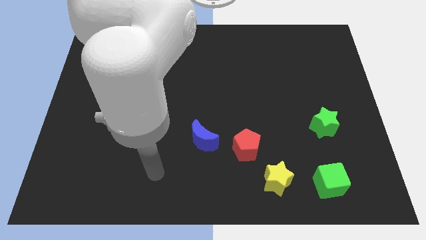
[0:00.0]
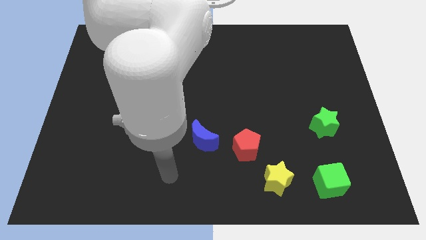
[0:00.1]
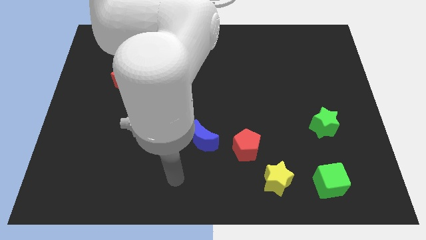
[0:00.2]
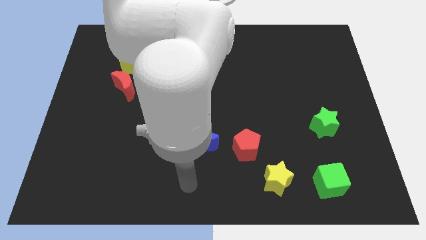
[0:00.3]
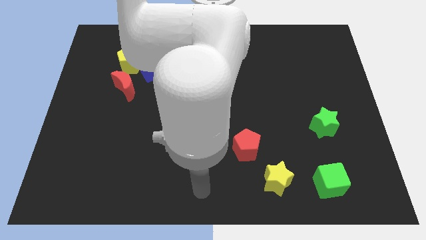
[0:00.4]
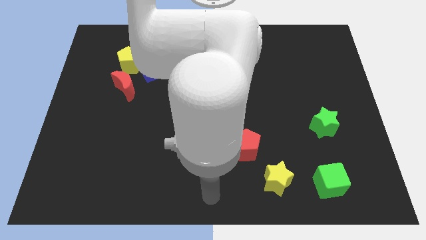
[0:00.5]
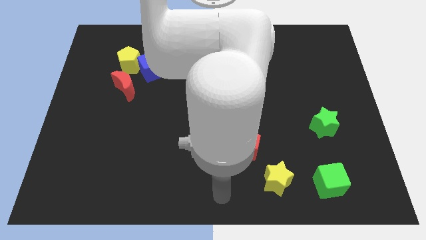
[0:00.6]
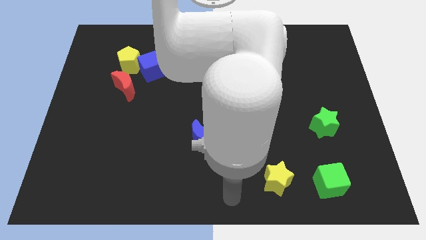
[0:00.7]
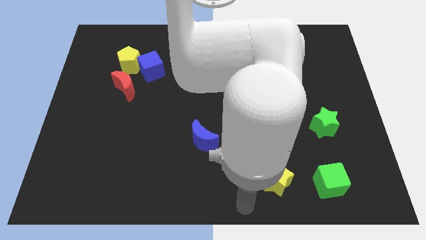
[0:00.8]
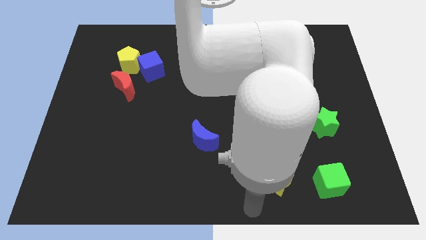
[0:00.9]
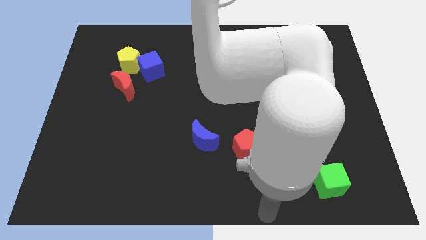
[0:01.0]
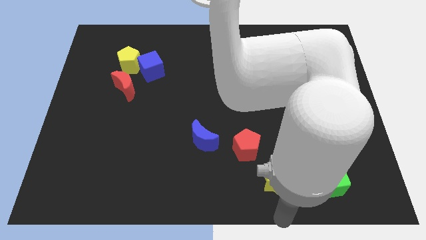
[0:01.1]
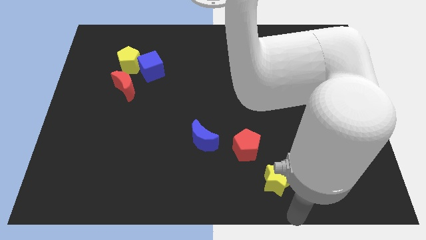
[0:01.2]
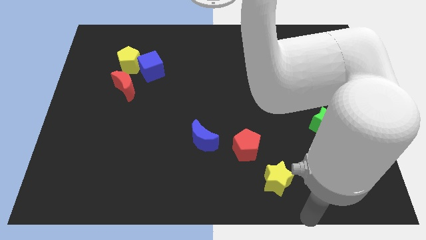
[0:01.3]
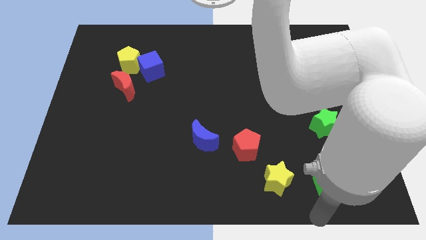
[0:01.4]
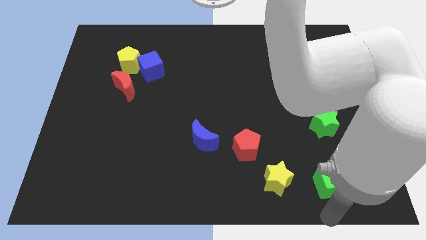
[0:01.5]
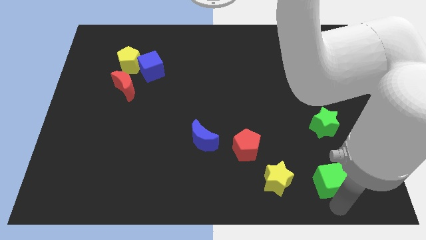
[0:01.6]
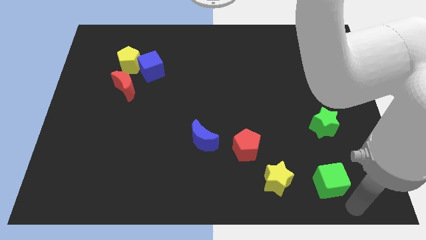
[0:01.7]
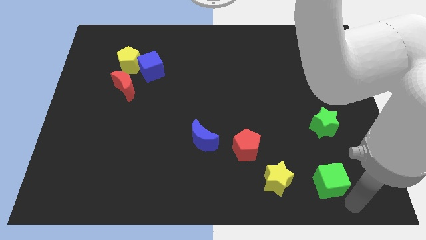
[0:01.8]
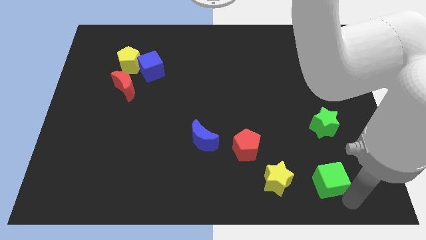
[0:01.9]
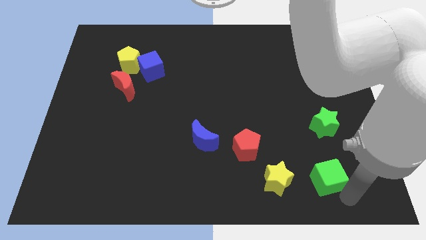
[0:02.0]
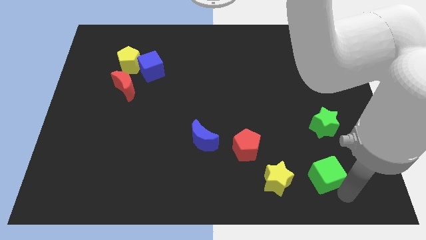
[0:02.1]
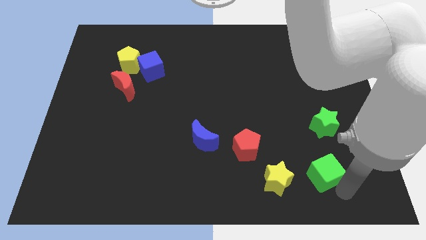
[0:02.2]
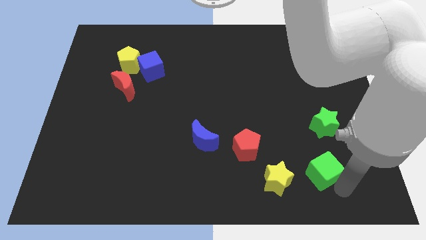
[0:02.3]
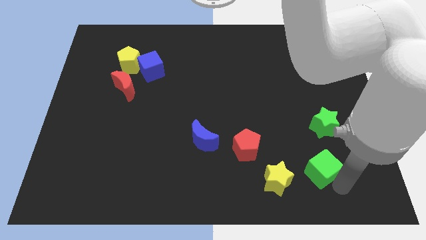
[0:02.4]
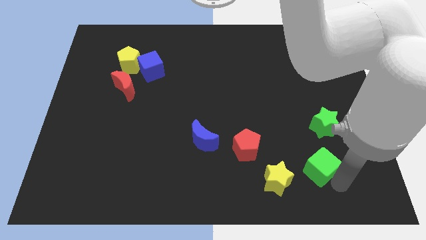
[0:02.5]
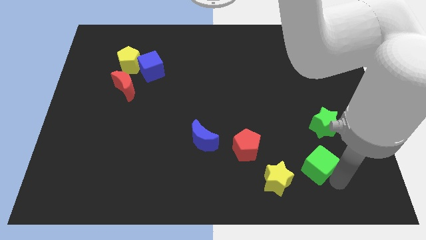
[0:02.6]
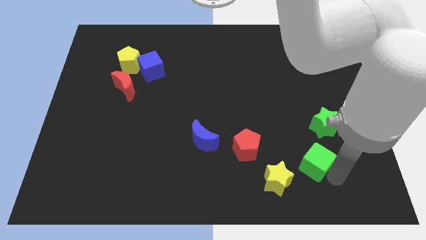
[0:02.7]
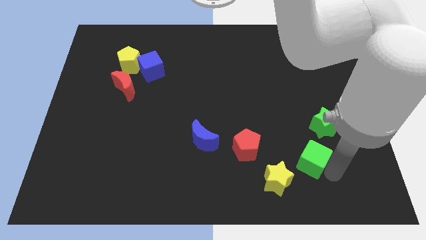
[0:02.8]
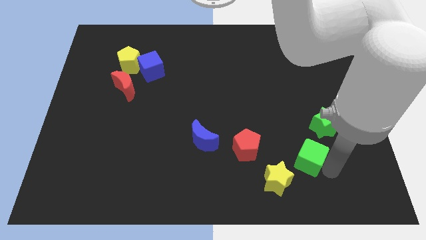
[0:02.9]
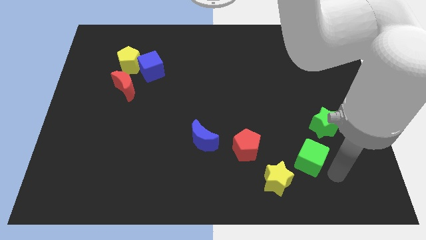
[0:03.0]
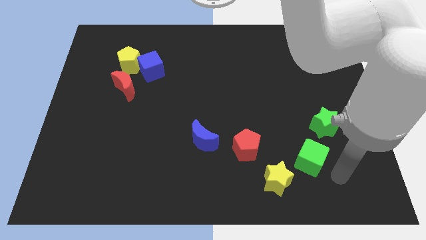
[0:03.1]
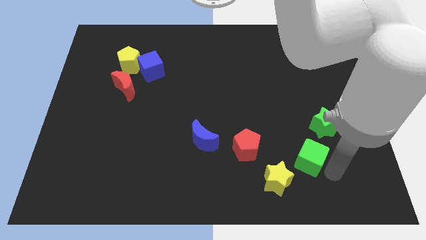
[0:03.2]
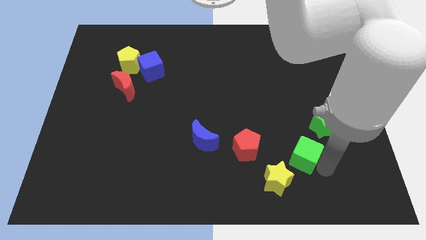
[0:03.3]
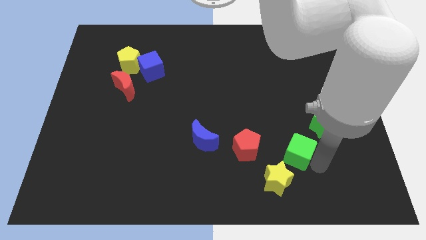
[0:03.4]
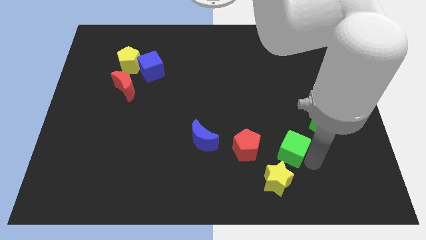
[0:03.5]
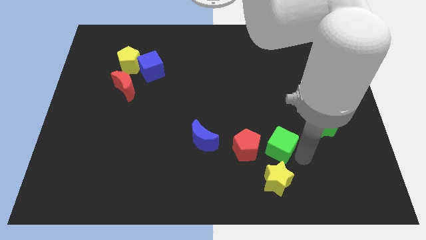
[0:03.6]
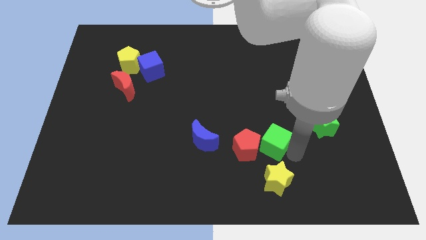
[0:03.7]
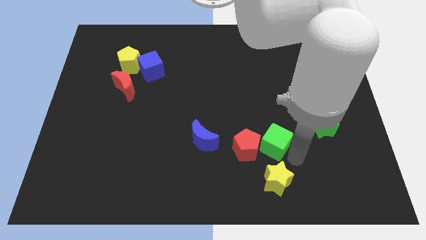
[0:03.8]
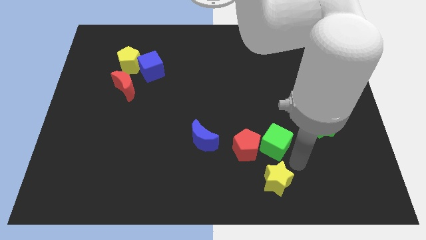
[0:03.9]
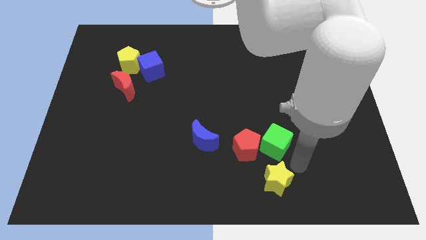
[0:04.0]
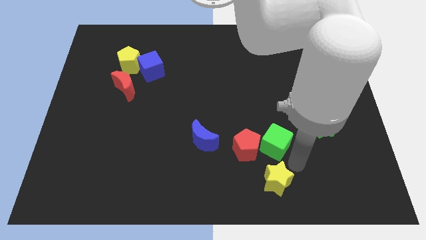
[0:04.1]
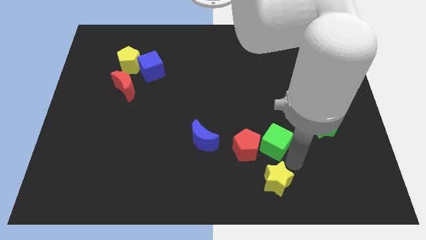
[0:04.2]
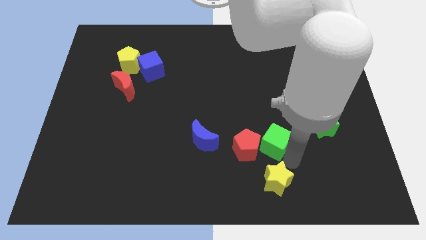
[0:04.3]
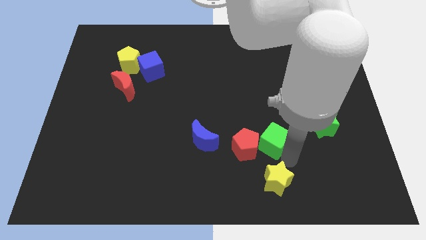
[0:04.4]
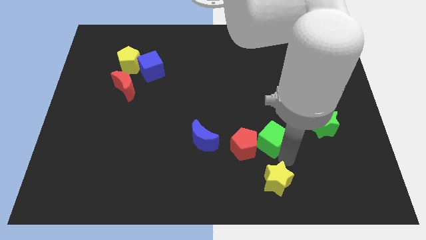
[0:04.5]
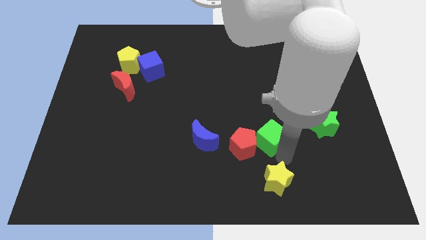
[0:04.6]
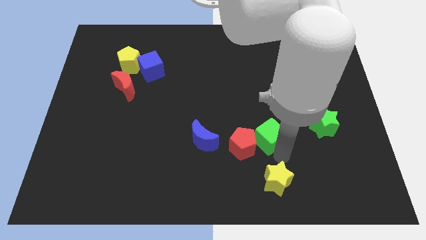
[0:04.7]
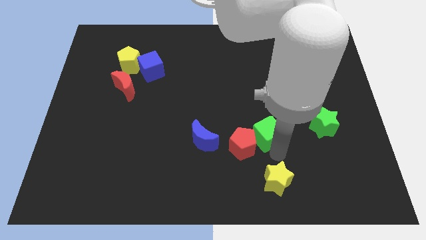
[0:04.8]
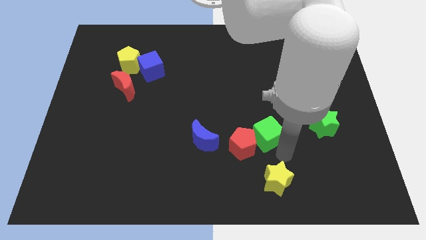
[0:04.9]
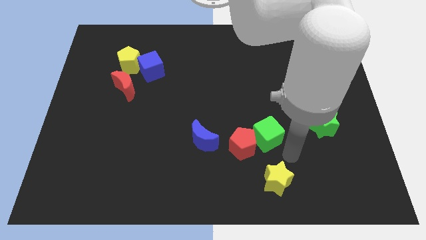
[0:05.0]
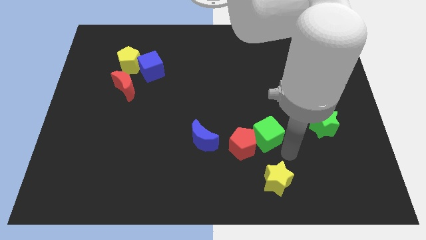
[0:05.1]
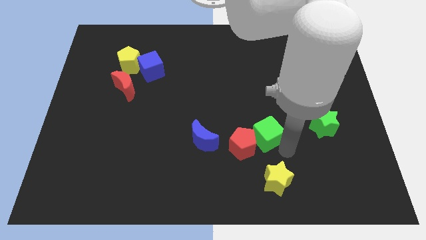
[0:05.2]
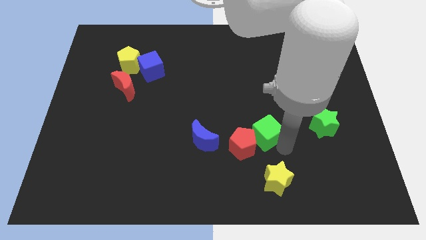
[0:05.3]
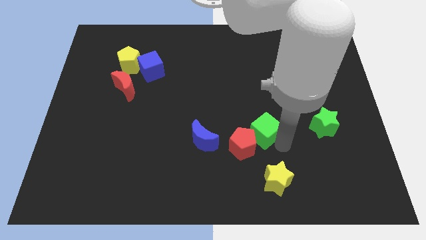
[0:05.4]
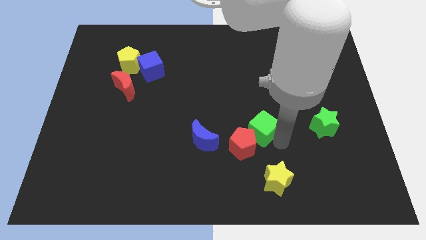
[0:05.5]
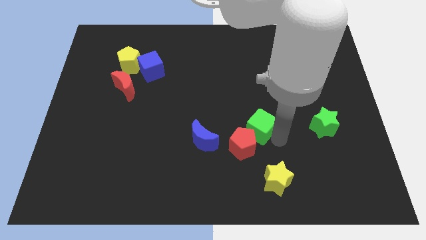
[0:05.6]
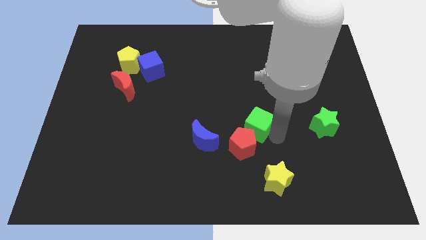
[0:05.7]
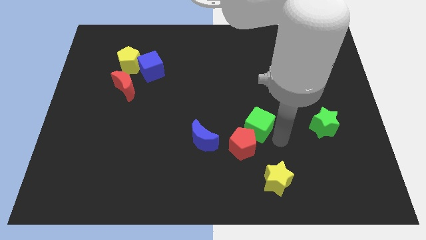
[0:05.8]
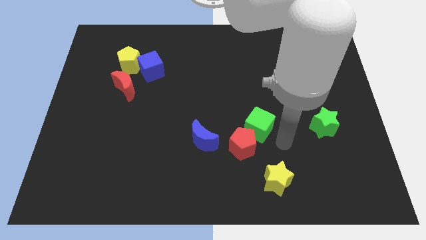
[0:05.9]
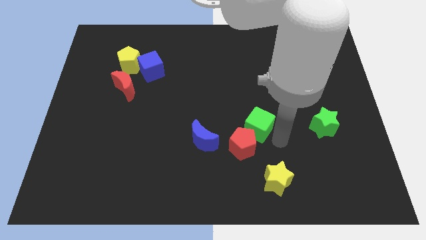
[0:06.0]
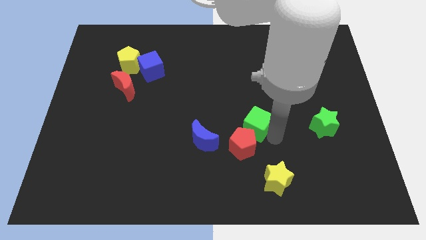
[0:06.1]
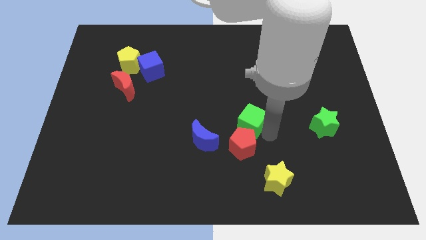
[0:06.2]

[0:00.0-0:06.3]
push the green cube up and left diagonally

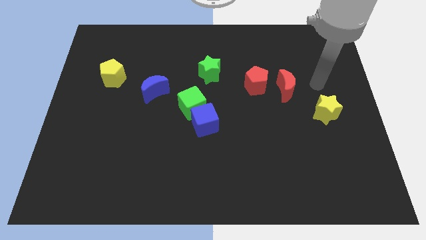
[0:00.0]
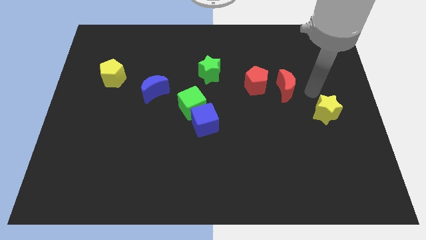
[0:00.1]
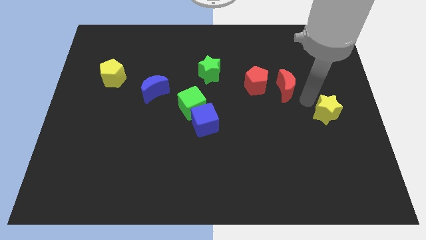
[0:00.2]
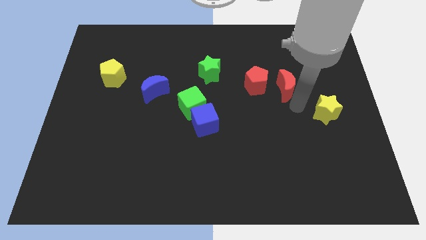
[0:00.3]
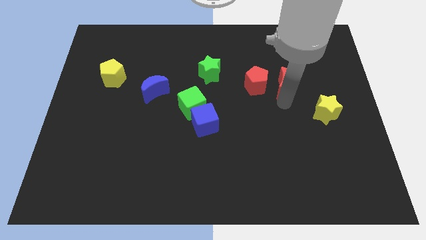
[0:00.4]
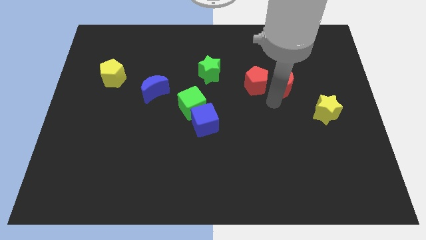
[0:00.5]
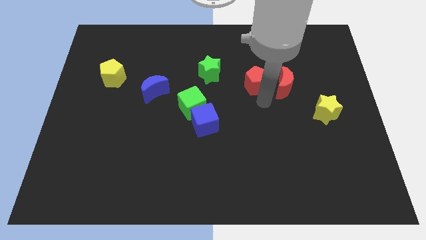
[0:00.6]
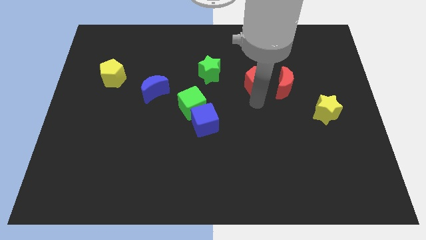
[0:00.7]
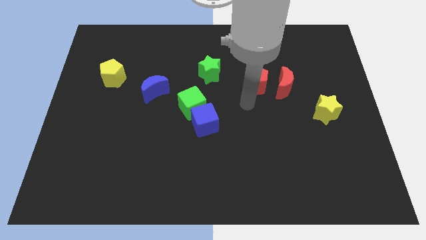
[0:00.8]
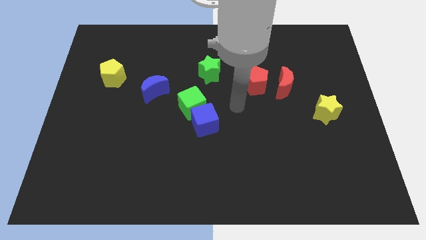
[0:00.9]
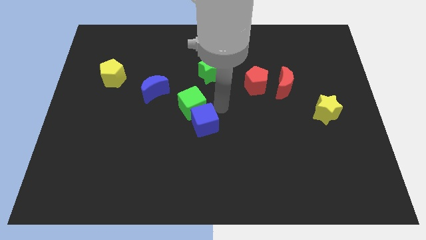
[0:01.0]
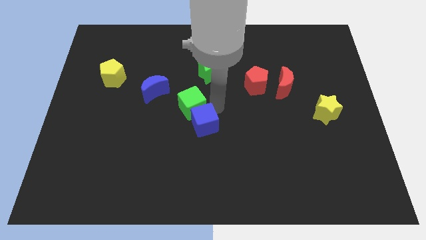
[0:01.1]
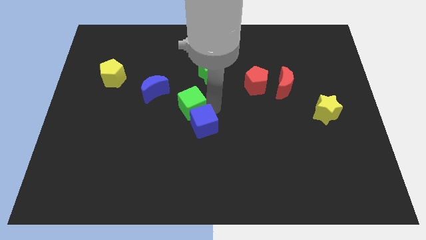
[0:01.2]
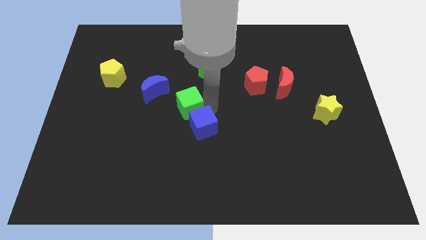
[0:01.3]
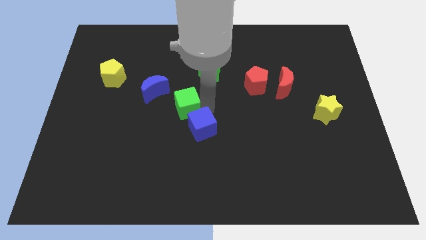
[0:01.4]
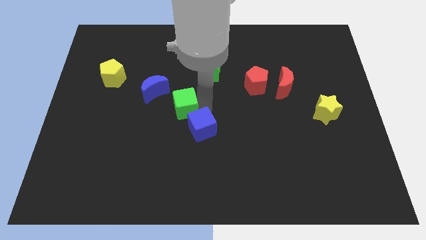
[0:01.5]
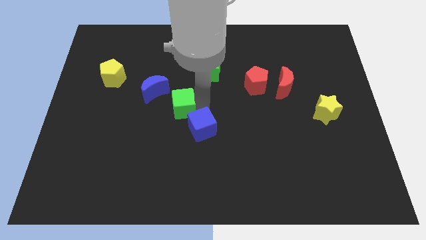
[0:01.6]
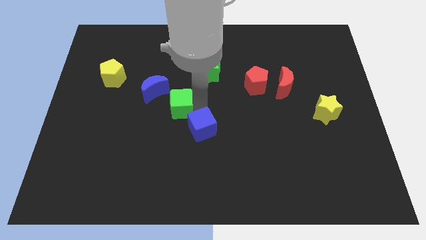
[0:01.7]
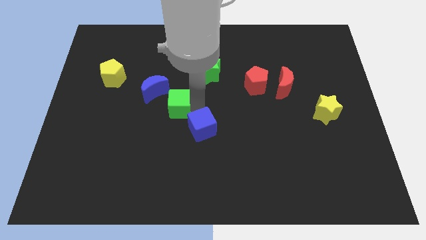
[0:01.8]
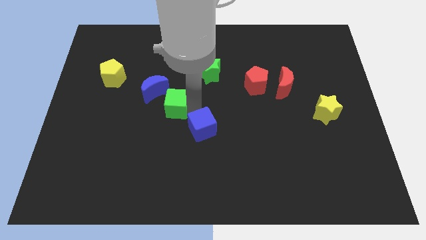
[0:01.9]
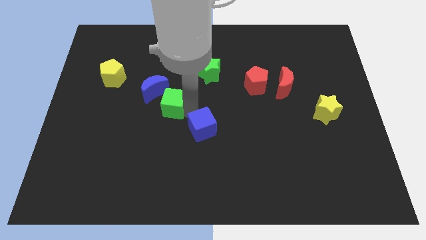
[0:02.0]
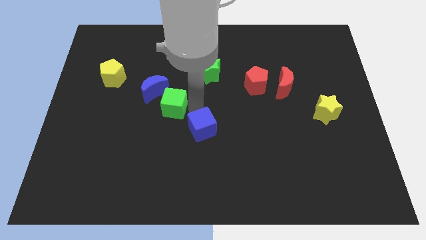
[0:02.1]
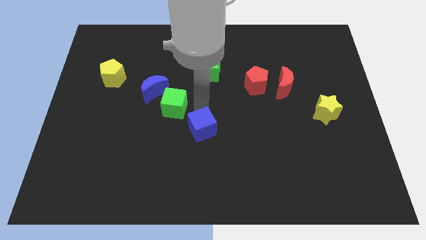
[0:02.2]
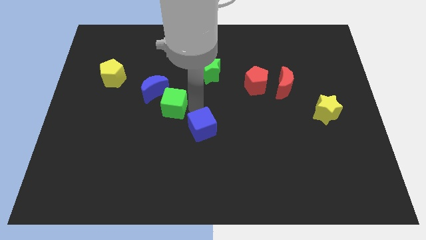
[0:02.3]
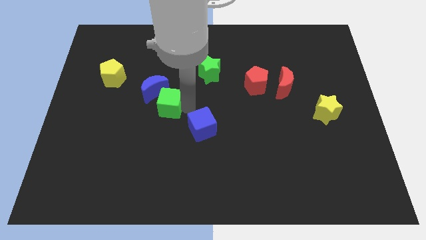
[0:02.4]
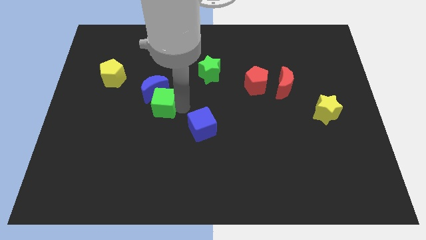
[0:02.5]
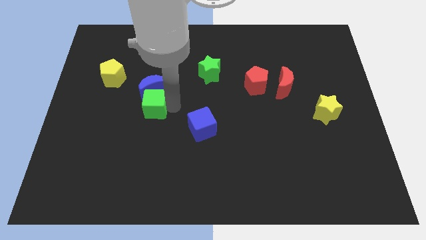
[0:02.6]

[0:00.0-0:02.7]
slightly move the green cube left
